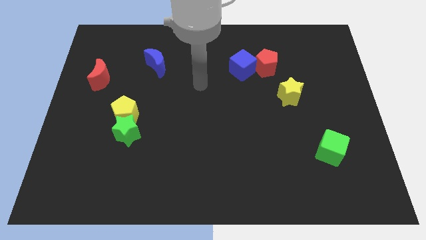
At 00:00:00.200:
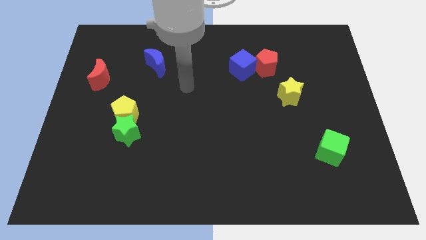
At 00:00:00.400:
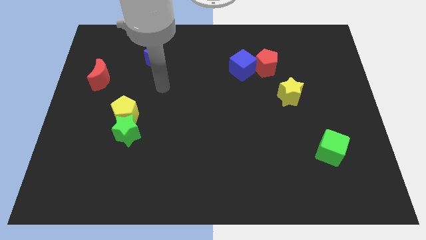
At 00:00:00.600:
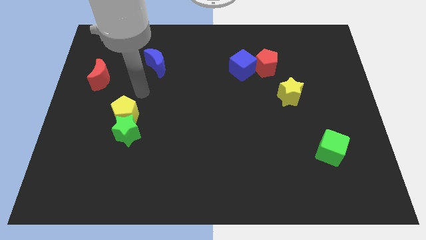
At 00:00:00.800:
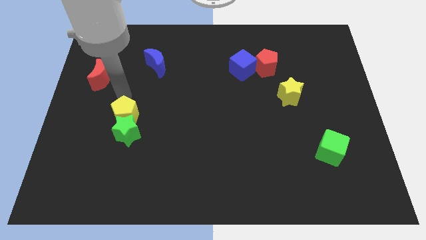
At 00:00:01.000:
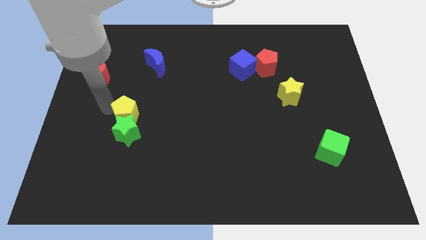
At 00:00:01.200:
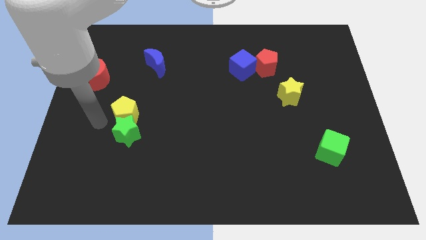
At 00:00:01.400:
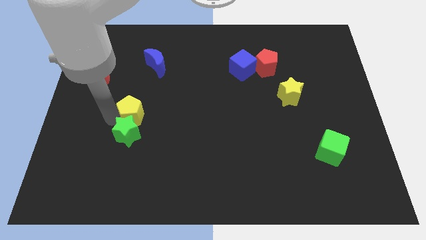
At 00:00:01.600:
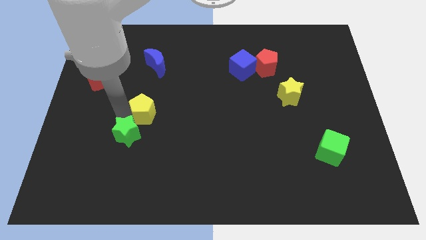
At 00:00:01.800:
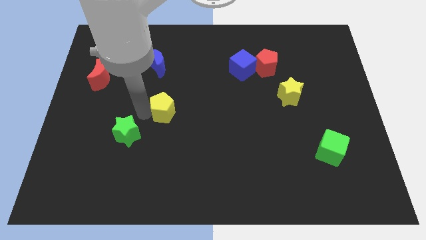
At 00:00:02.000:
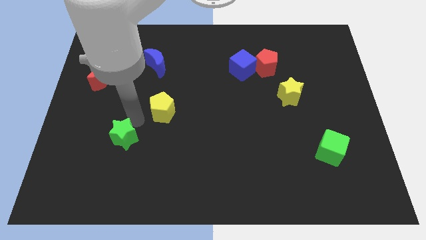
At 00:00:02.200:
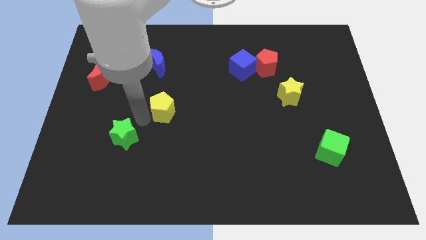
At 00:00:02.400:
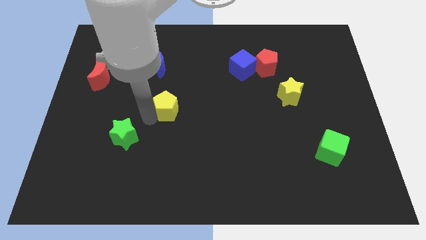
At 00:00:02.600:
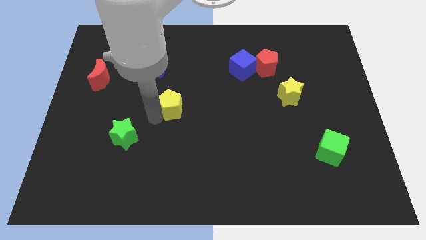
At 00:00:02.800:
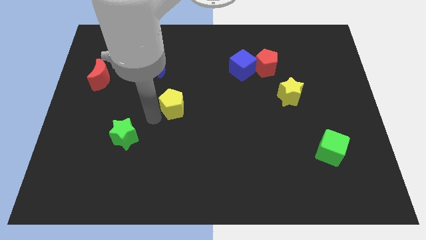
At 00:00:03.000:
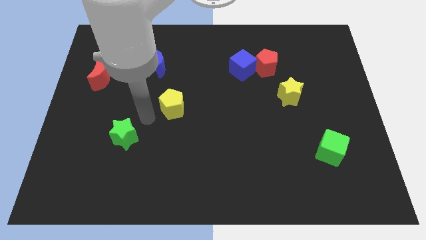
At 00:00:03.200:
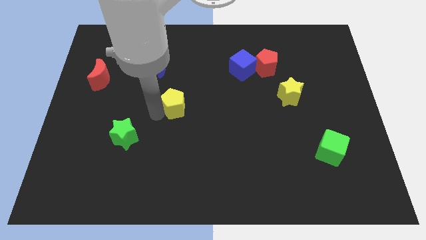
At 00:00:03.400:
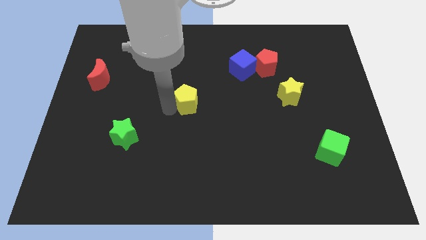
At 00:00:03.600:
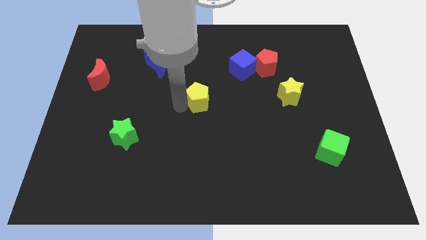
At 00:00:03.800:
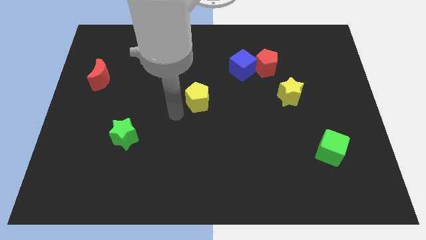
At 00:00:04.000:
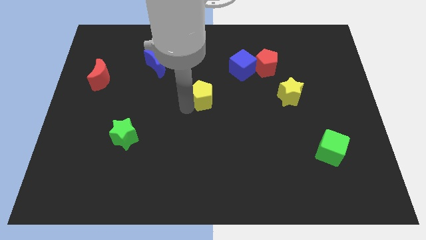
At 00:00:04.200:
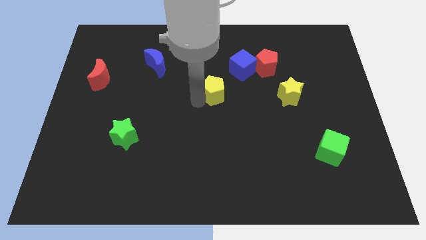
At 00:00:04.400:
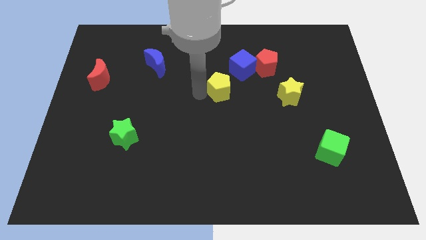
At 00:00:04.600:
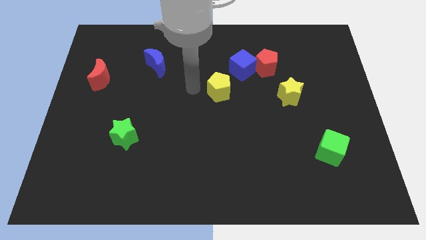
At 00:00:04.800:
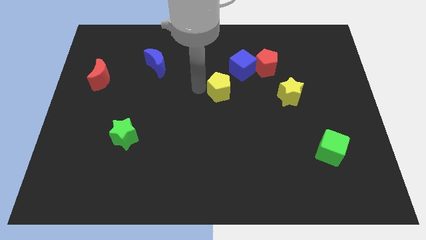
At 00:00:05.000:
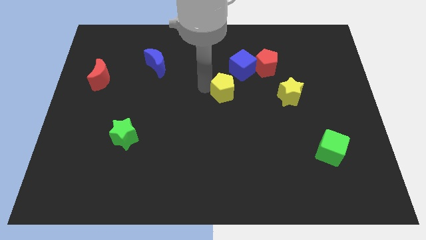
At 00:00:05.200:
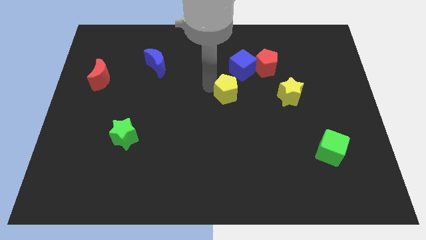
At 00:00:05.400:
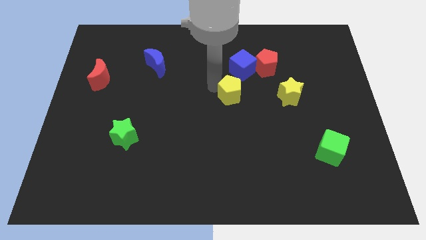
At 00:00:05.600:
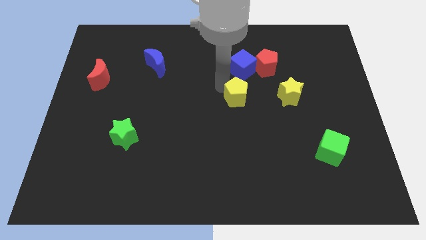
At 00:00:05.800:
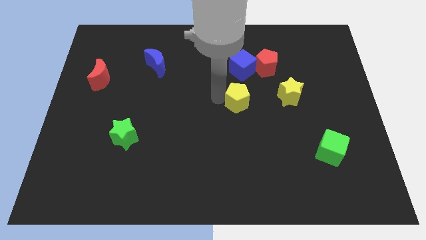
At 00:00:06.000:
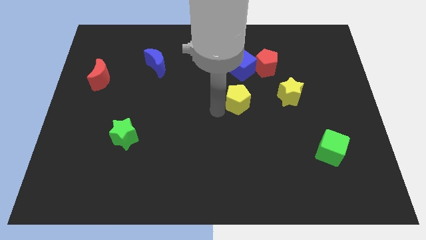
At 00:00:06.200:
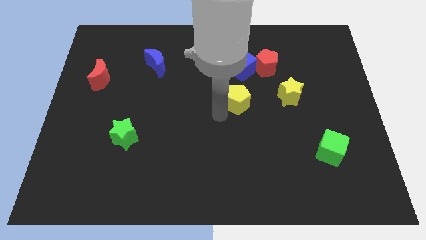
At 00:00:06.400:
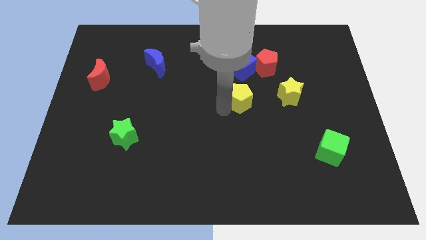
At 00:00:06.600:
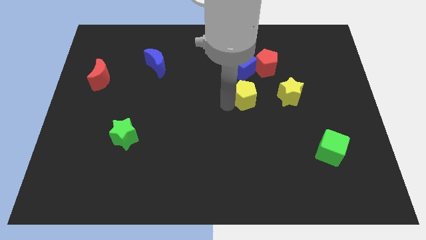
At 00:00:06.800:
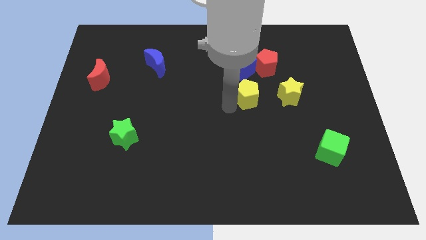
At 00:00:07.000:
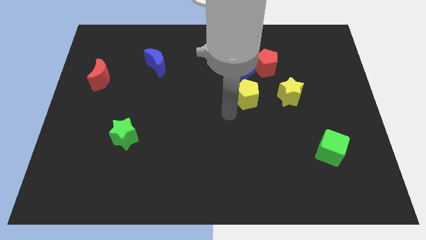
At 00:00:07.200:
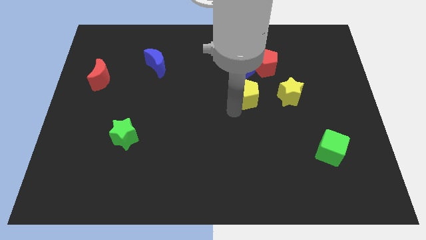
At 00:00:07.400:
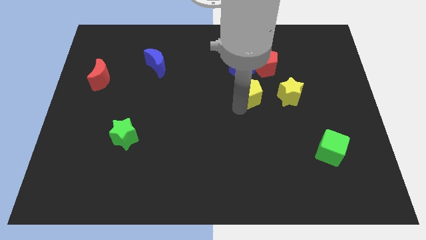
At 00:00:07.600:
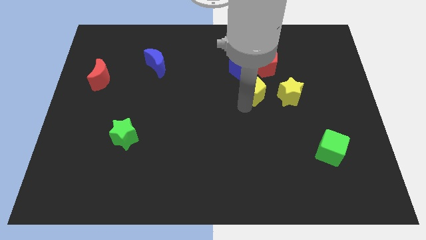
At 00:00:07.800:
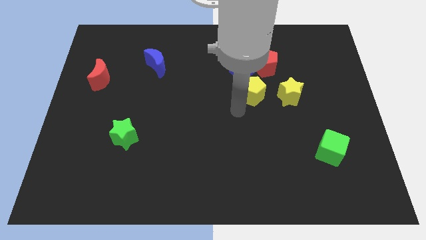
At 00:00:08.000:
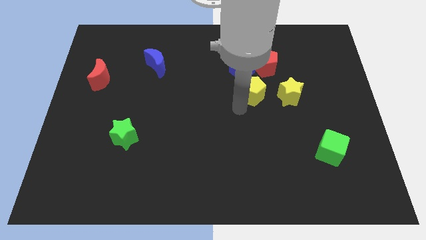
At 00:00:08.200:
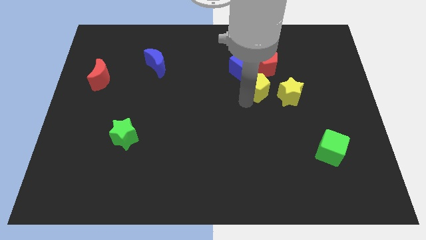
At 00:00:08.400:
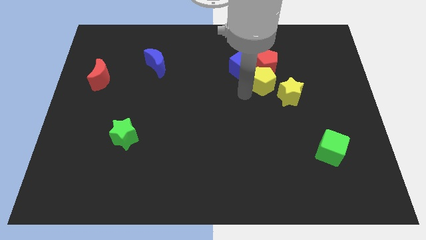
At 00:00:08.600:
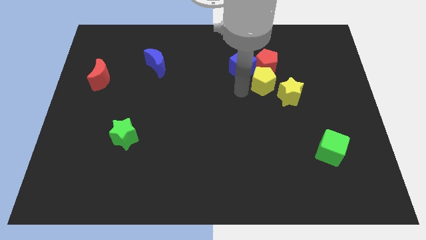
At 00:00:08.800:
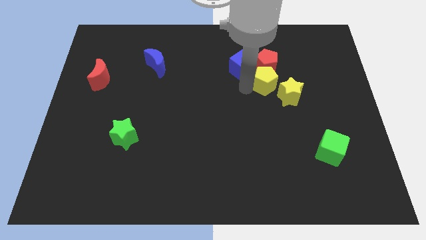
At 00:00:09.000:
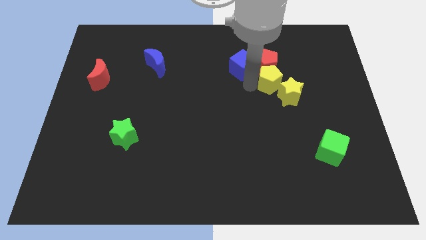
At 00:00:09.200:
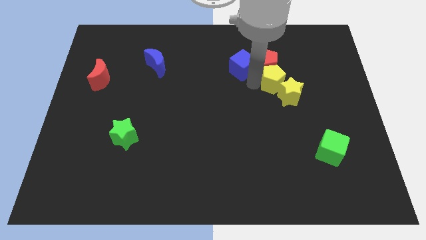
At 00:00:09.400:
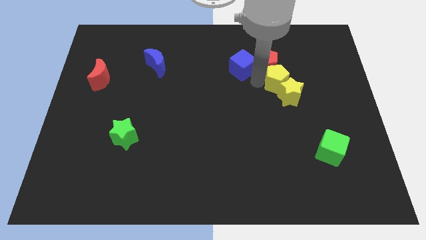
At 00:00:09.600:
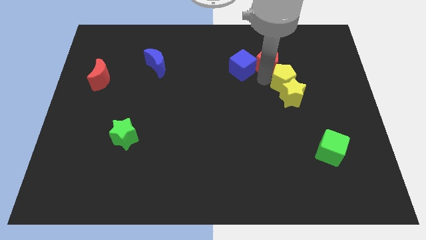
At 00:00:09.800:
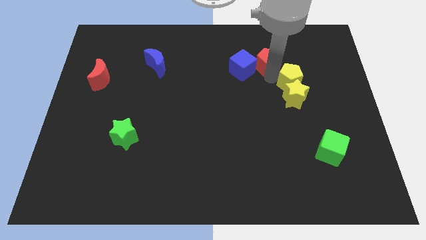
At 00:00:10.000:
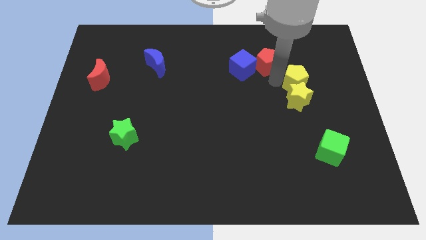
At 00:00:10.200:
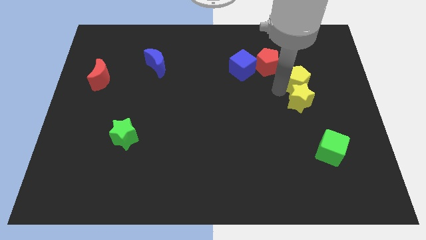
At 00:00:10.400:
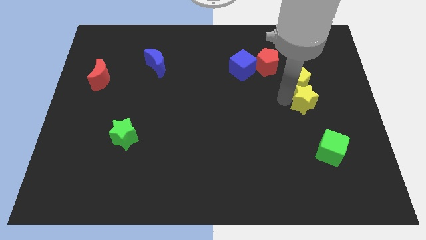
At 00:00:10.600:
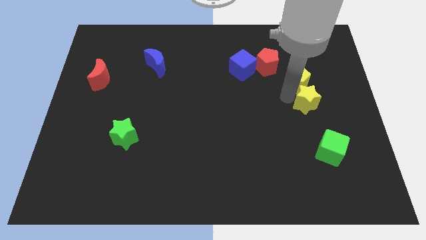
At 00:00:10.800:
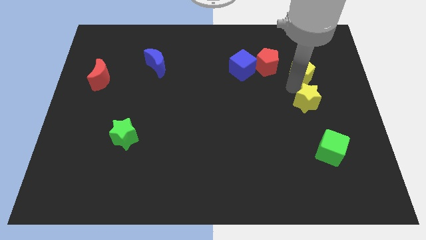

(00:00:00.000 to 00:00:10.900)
put the yellow pentagon right of the red pentagon
